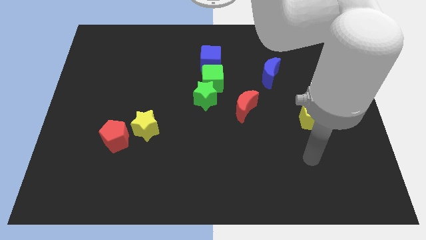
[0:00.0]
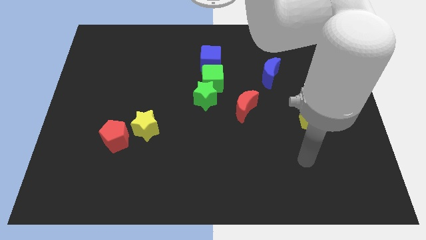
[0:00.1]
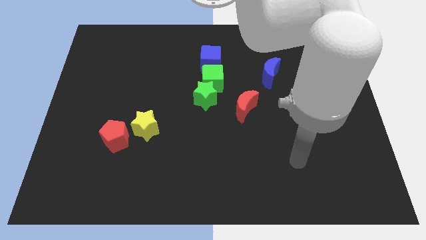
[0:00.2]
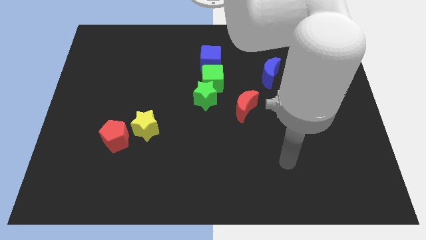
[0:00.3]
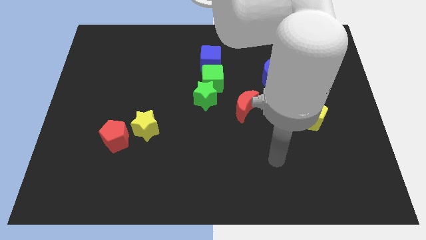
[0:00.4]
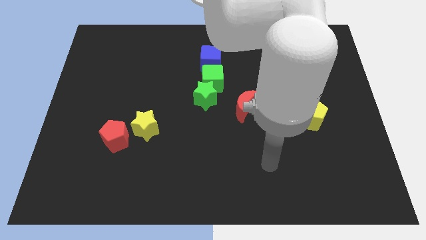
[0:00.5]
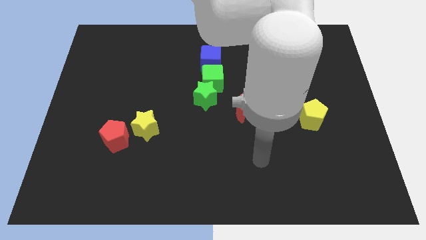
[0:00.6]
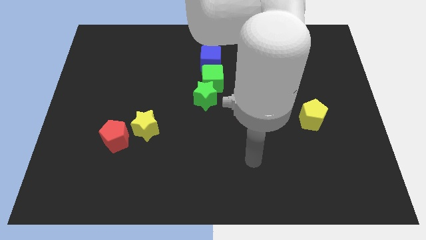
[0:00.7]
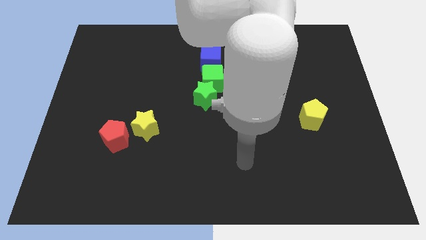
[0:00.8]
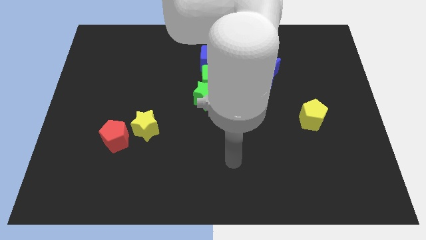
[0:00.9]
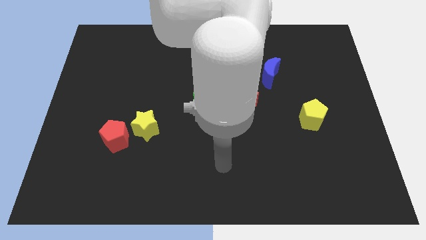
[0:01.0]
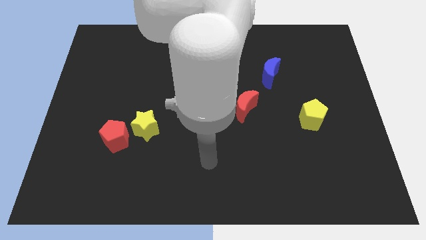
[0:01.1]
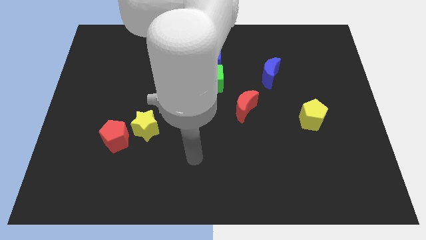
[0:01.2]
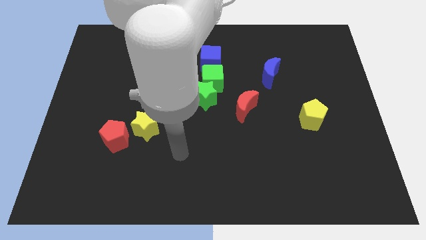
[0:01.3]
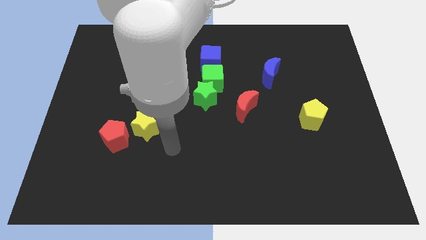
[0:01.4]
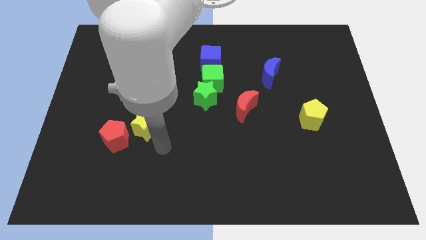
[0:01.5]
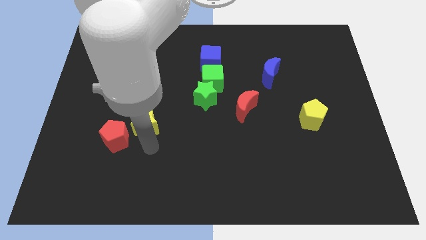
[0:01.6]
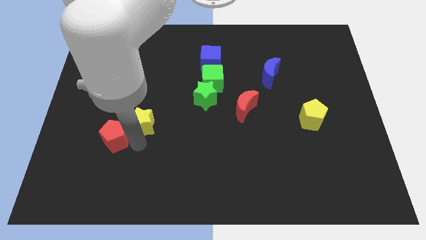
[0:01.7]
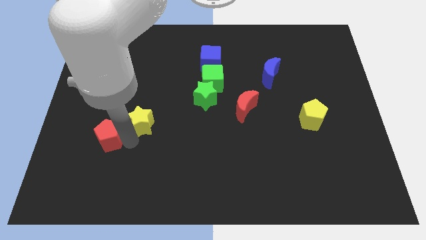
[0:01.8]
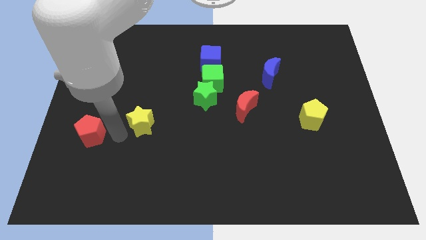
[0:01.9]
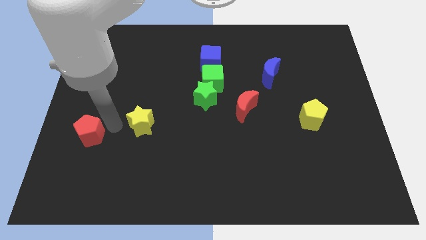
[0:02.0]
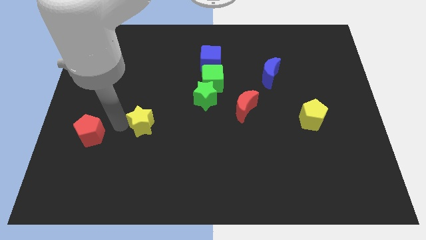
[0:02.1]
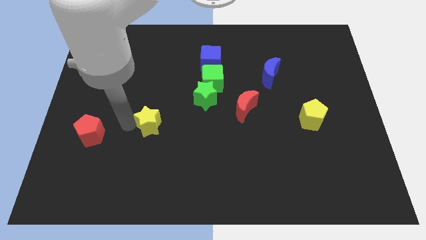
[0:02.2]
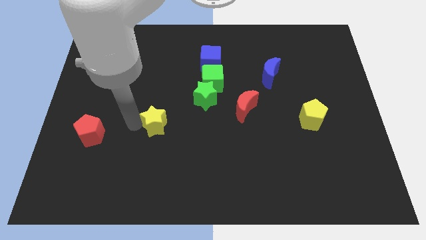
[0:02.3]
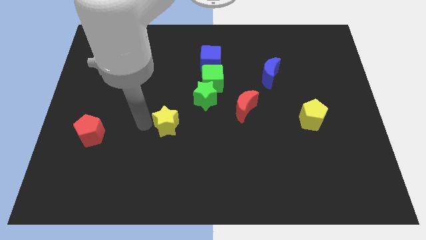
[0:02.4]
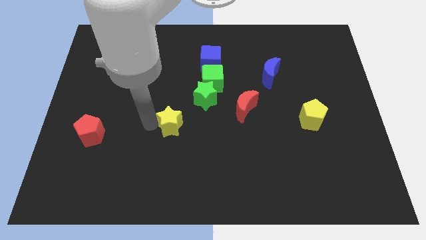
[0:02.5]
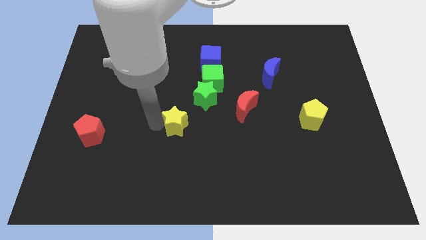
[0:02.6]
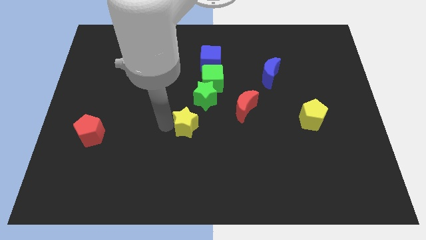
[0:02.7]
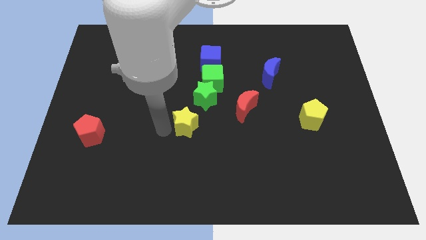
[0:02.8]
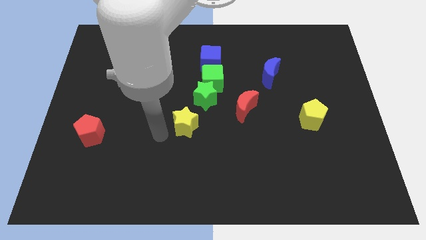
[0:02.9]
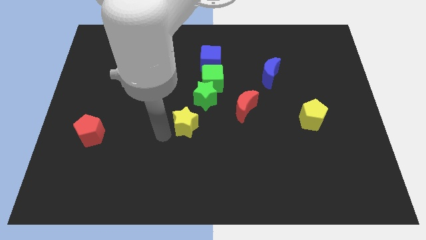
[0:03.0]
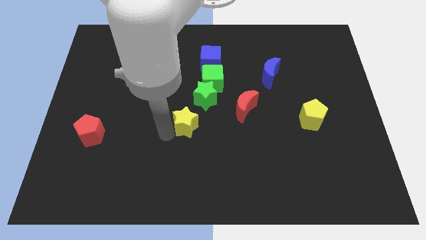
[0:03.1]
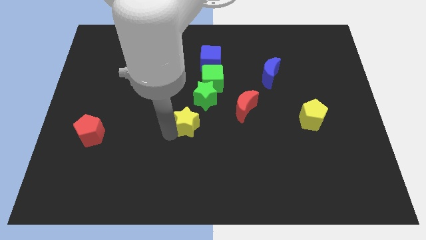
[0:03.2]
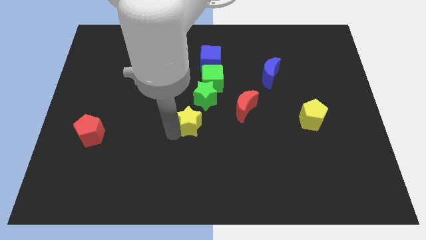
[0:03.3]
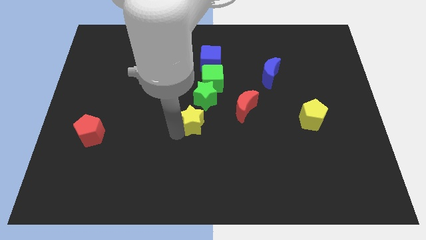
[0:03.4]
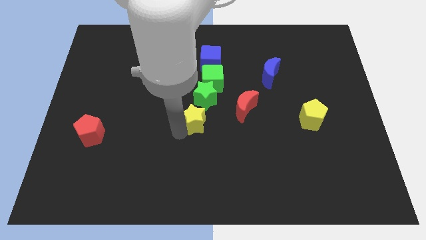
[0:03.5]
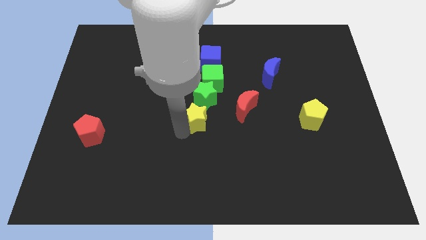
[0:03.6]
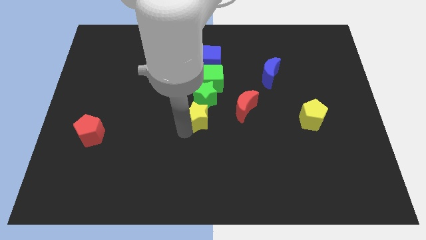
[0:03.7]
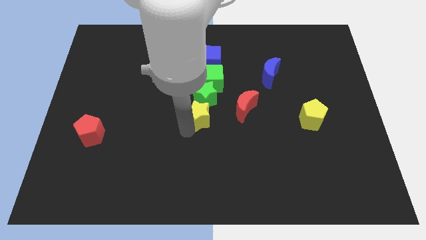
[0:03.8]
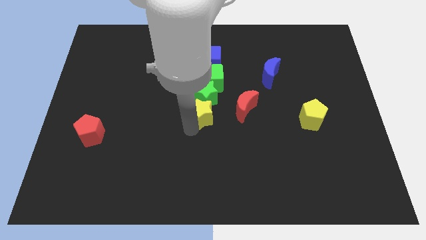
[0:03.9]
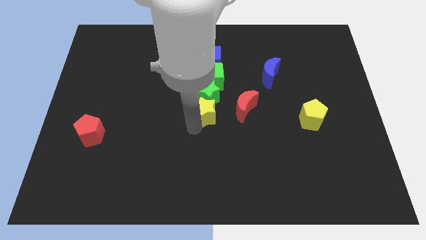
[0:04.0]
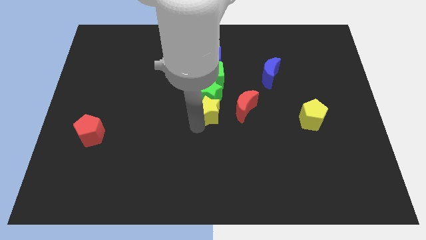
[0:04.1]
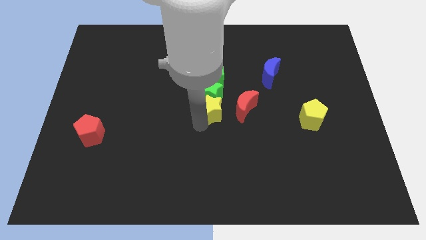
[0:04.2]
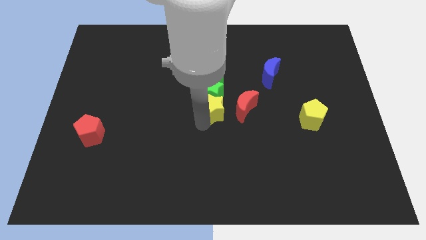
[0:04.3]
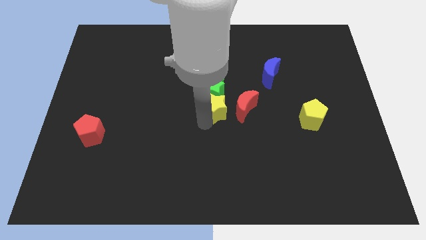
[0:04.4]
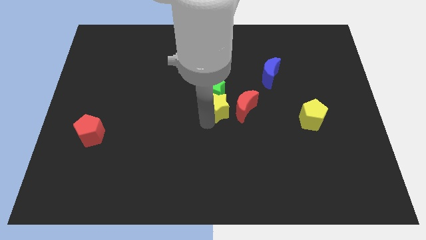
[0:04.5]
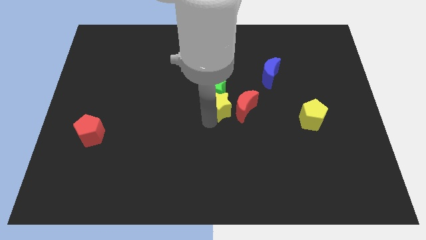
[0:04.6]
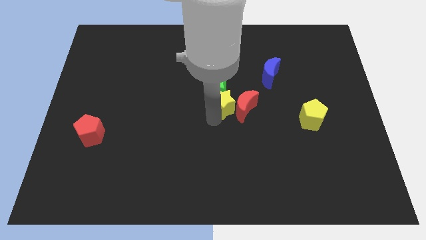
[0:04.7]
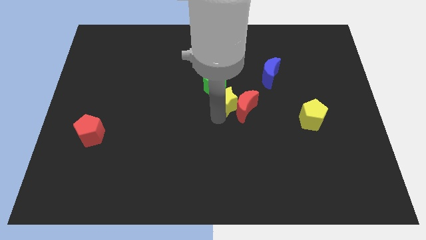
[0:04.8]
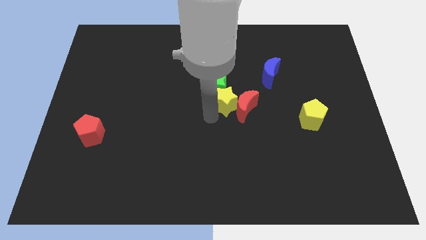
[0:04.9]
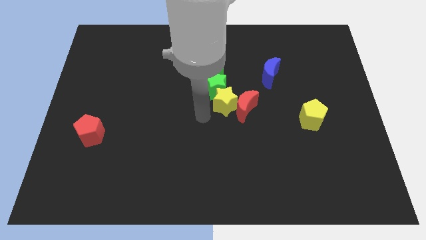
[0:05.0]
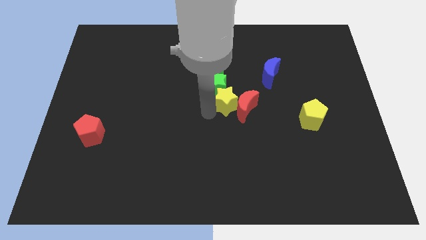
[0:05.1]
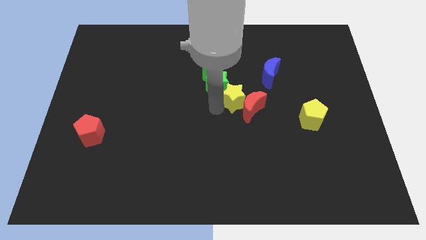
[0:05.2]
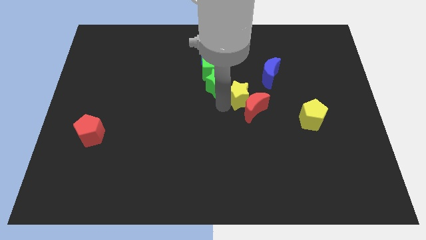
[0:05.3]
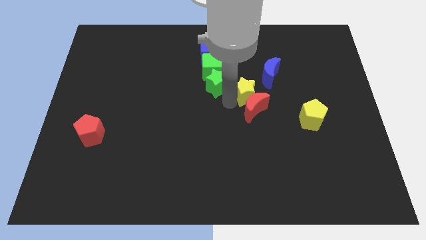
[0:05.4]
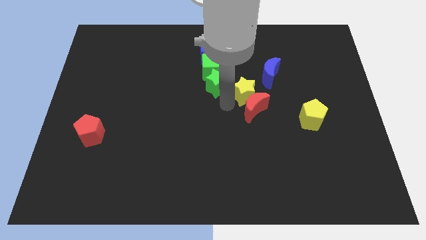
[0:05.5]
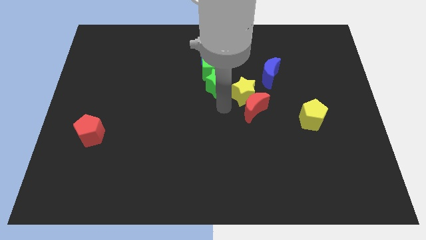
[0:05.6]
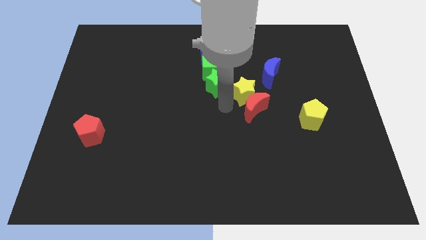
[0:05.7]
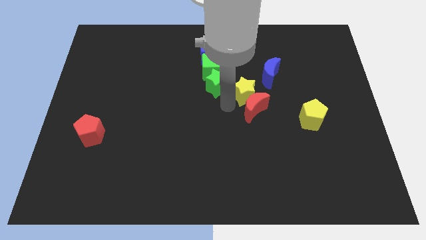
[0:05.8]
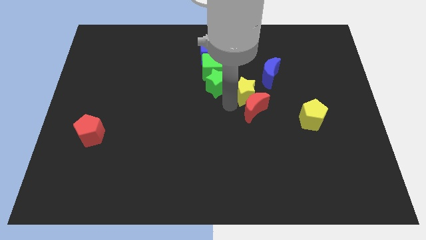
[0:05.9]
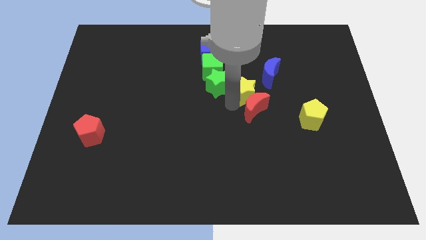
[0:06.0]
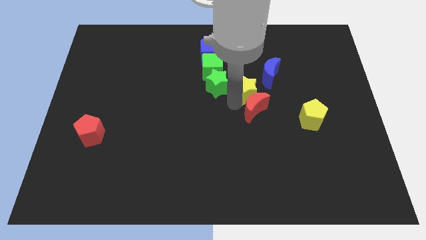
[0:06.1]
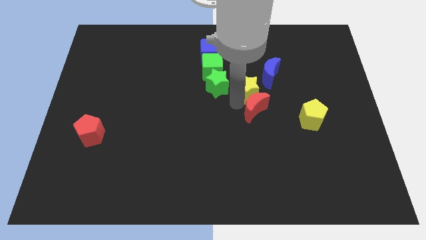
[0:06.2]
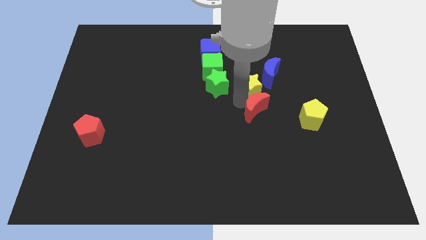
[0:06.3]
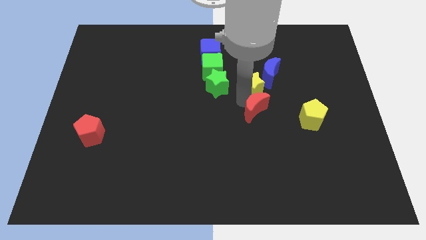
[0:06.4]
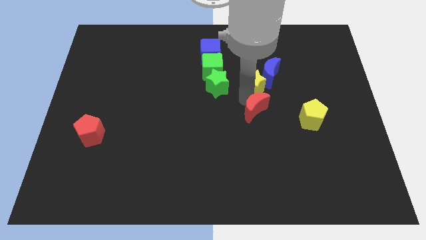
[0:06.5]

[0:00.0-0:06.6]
move the yellow star close to the blue moon

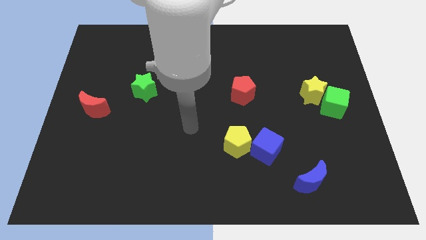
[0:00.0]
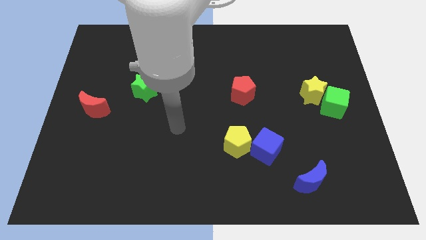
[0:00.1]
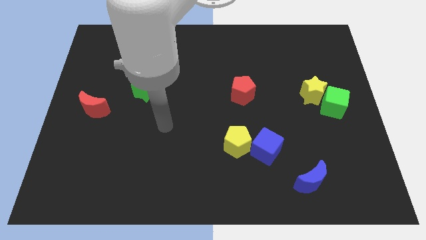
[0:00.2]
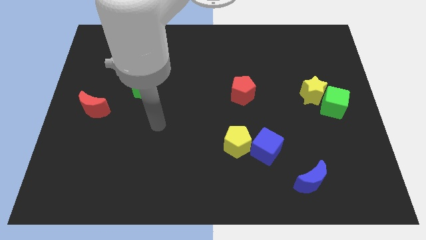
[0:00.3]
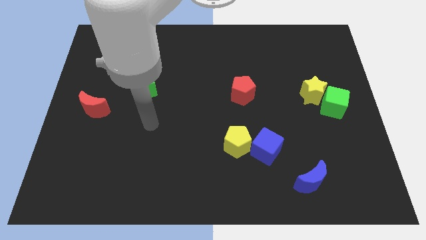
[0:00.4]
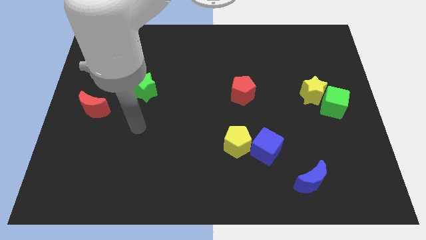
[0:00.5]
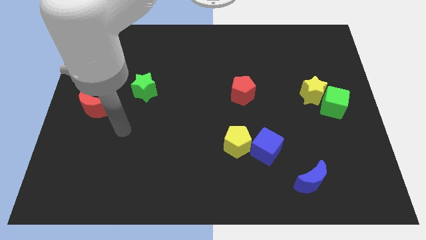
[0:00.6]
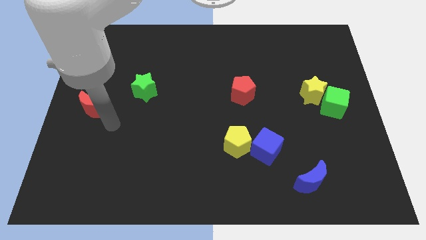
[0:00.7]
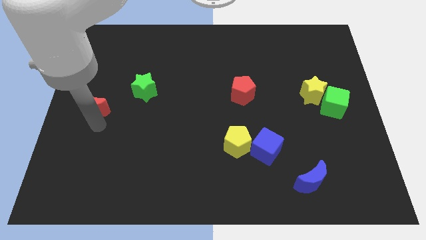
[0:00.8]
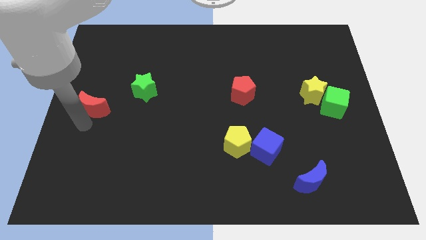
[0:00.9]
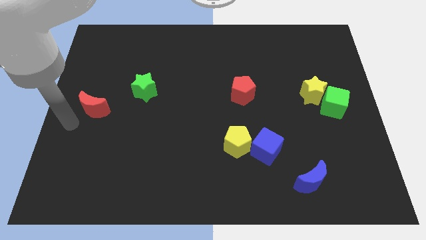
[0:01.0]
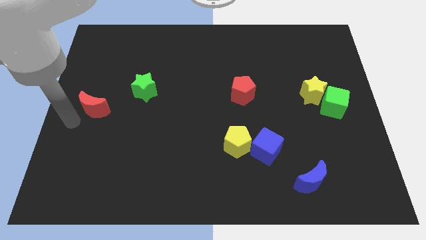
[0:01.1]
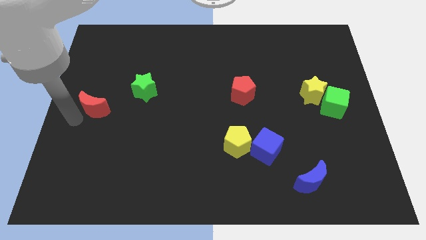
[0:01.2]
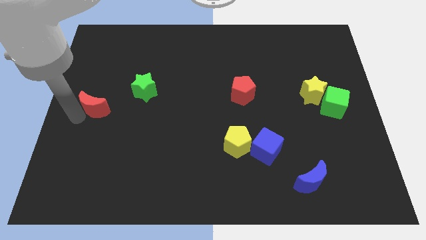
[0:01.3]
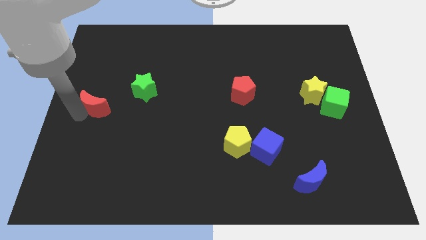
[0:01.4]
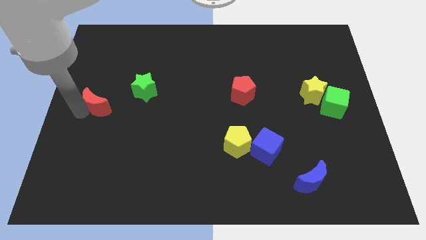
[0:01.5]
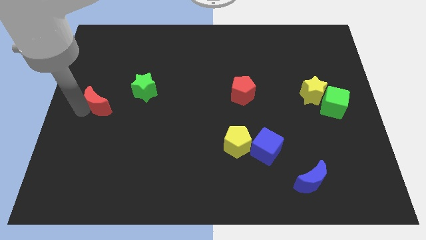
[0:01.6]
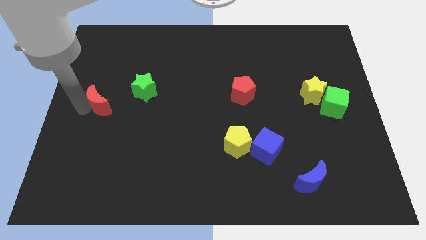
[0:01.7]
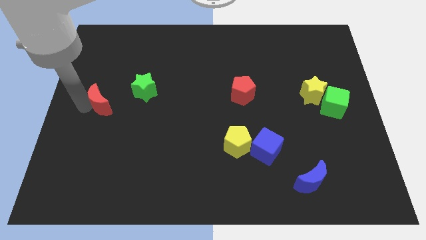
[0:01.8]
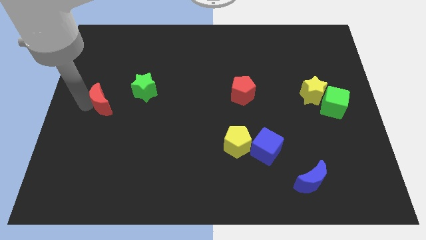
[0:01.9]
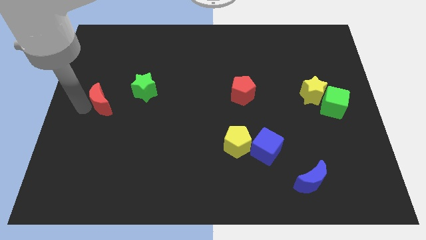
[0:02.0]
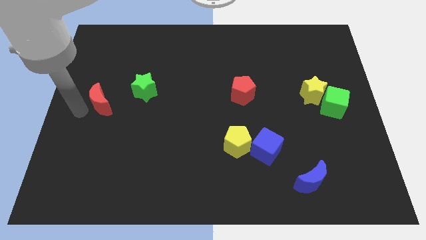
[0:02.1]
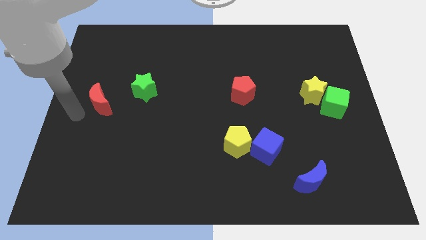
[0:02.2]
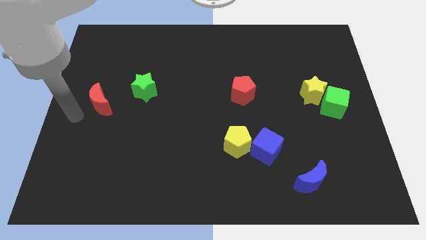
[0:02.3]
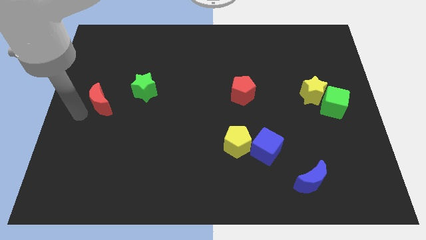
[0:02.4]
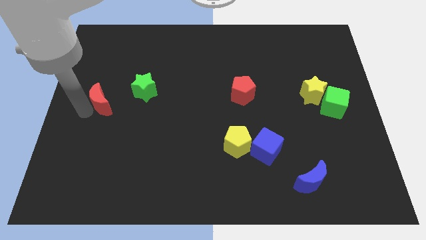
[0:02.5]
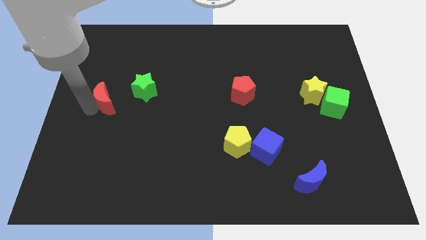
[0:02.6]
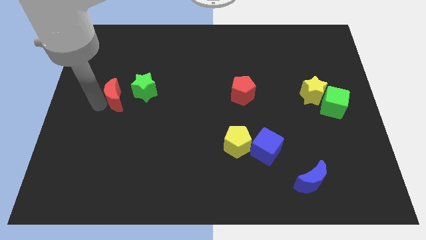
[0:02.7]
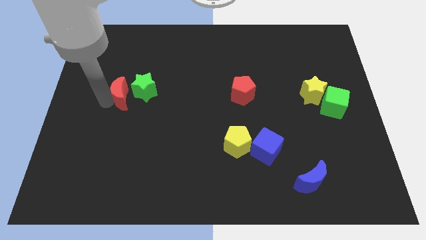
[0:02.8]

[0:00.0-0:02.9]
move the red moon next to the green star
